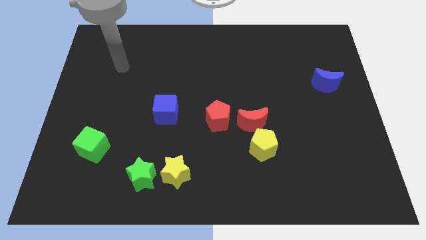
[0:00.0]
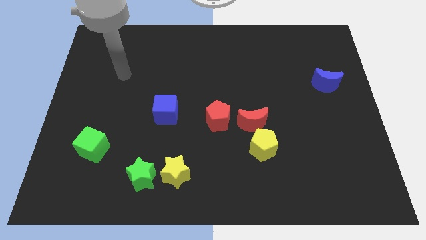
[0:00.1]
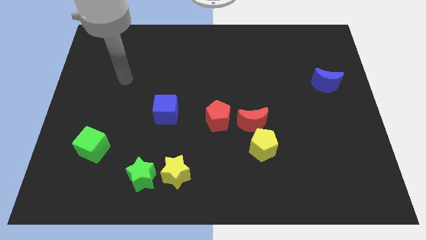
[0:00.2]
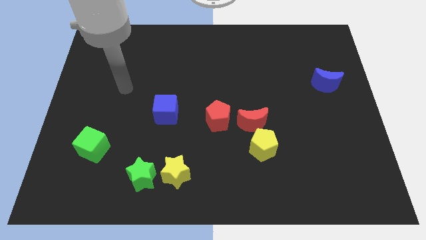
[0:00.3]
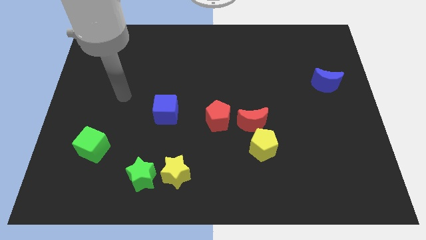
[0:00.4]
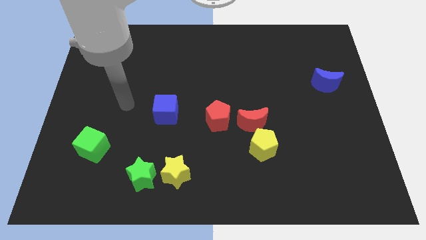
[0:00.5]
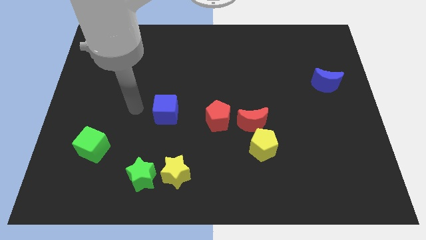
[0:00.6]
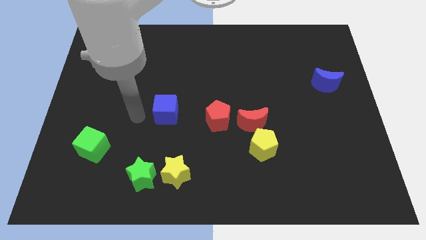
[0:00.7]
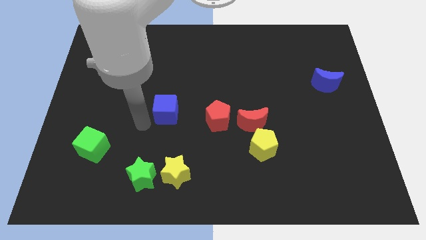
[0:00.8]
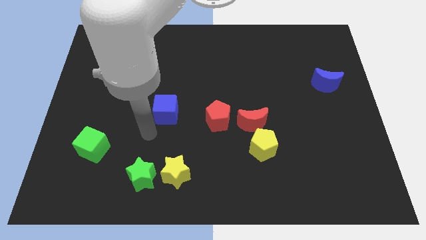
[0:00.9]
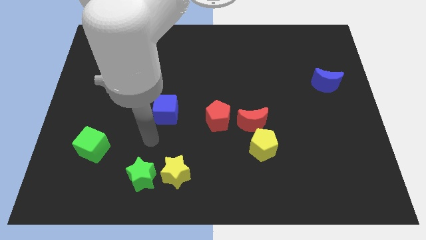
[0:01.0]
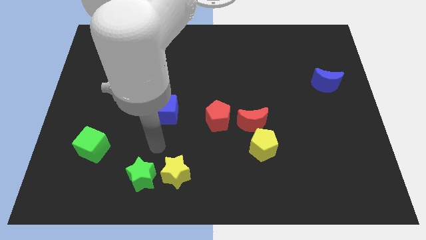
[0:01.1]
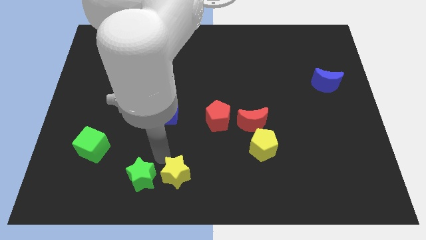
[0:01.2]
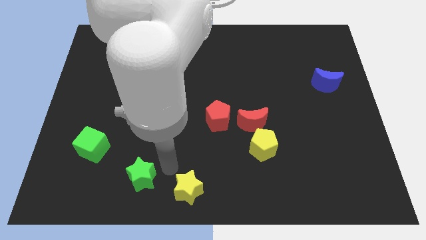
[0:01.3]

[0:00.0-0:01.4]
move the green star away from the yellow star

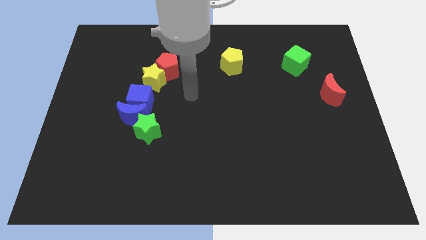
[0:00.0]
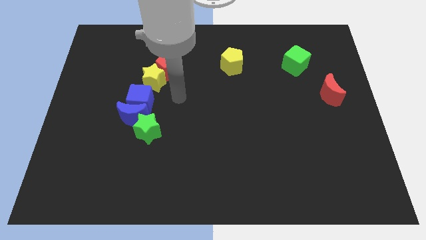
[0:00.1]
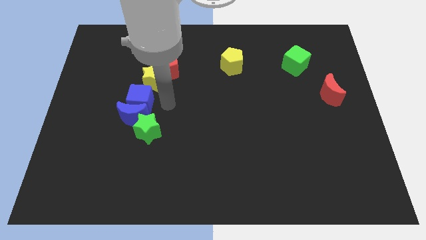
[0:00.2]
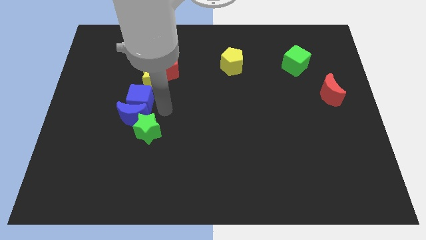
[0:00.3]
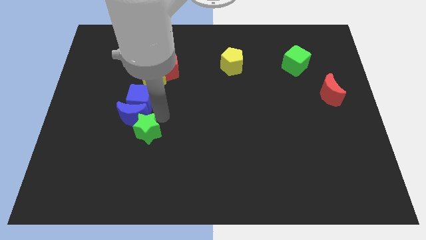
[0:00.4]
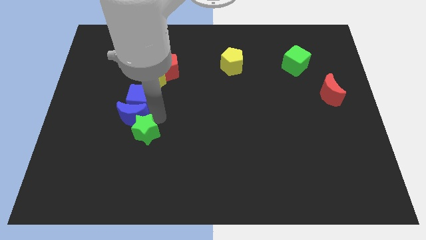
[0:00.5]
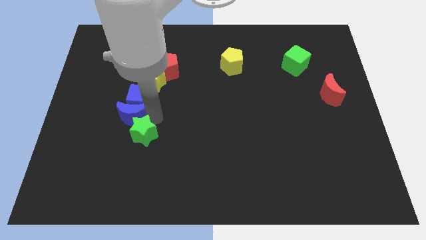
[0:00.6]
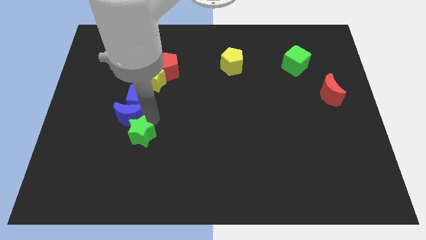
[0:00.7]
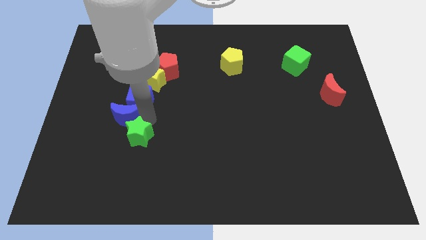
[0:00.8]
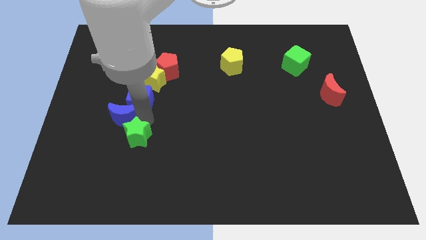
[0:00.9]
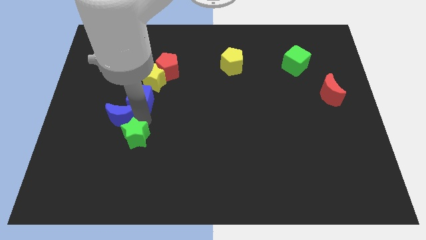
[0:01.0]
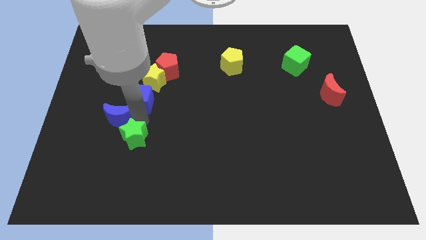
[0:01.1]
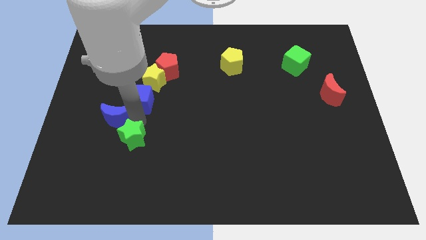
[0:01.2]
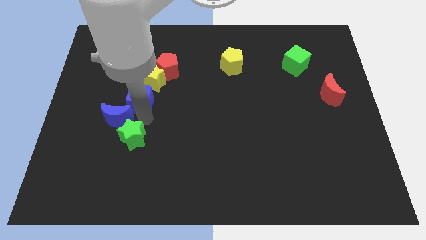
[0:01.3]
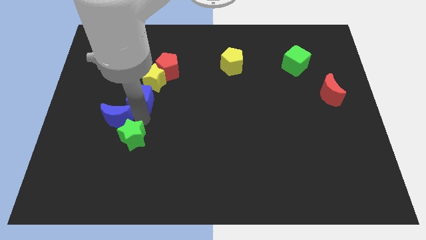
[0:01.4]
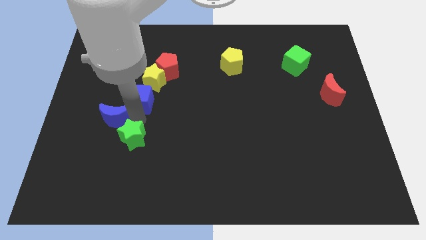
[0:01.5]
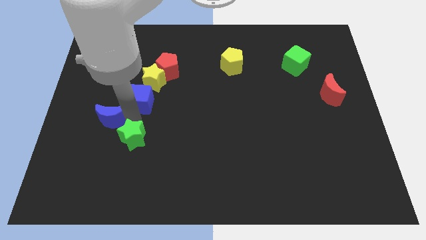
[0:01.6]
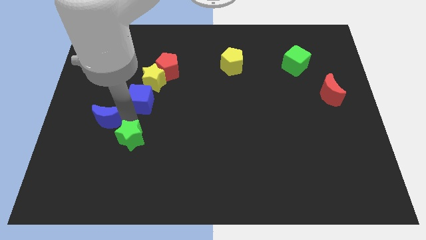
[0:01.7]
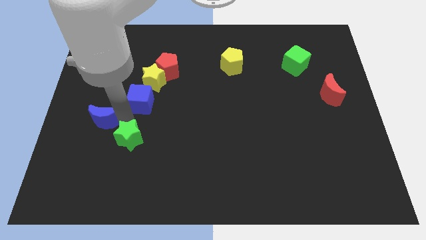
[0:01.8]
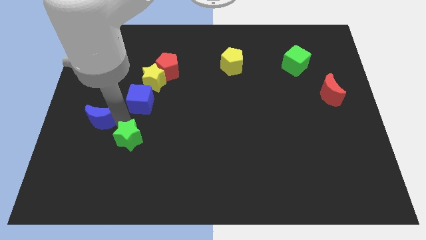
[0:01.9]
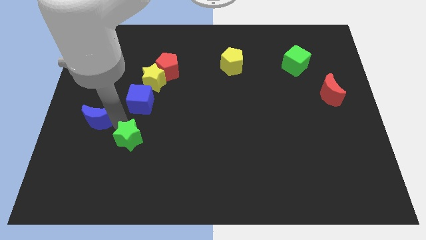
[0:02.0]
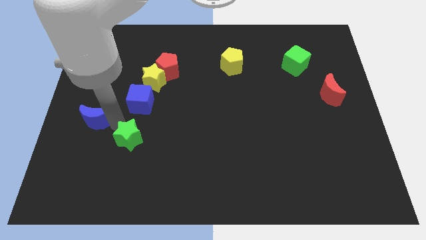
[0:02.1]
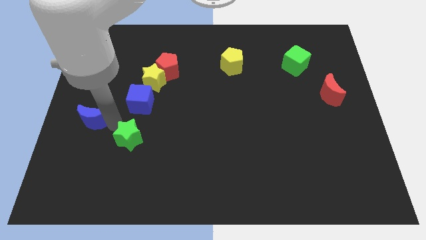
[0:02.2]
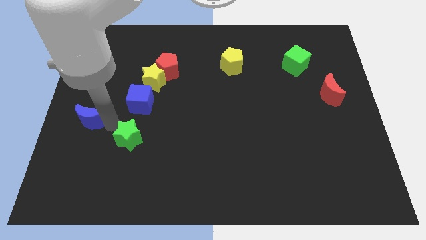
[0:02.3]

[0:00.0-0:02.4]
separate the blue moon from the blue cube and green star

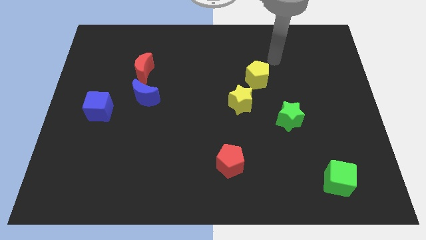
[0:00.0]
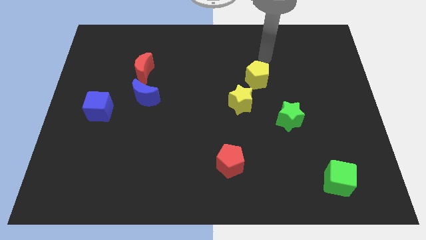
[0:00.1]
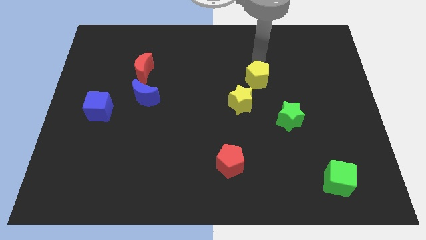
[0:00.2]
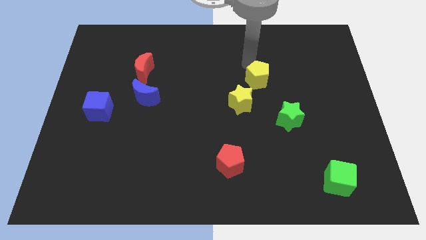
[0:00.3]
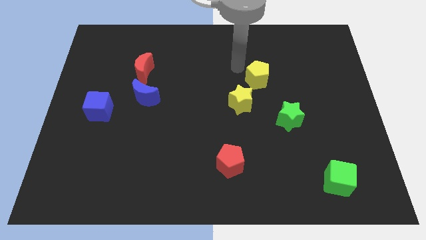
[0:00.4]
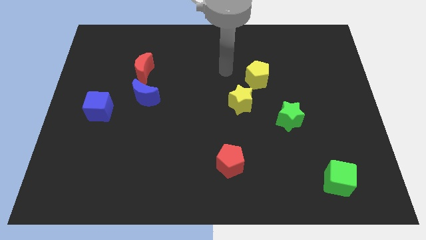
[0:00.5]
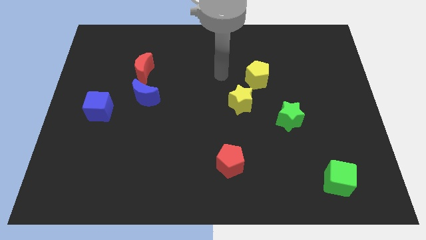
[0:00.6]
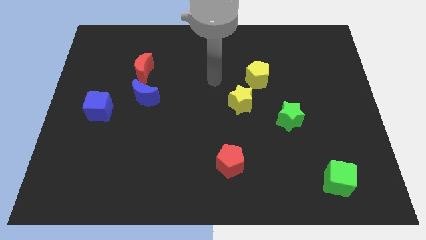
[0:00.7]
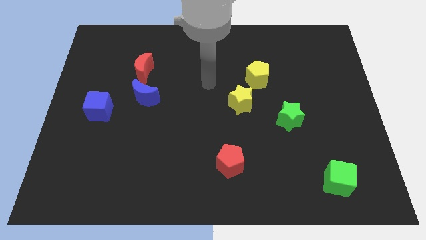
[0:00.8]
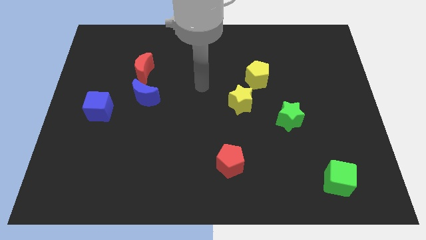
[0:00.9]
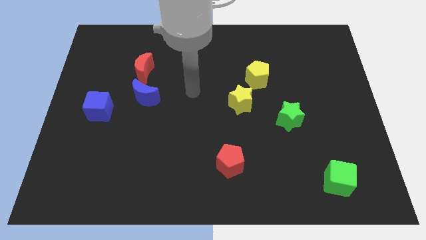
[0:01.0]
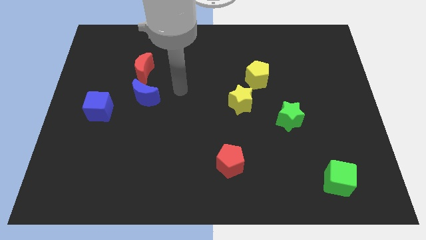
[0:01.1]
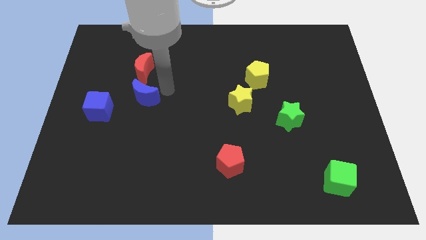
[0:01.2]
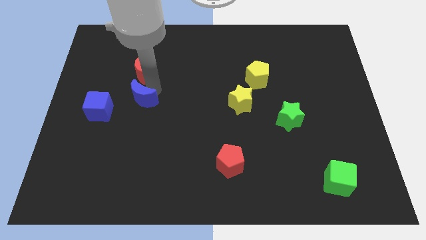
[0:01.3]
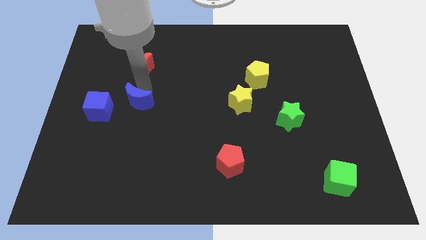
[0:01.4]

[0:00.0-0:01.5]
move the red moon away from the blue moon

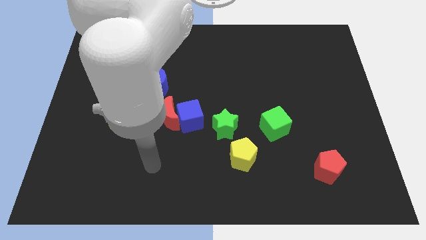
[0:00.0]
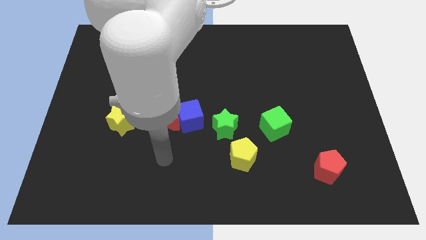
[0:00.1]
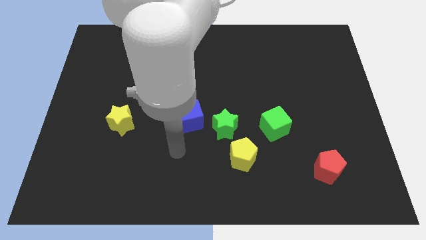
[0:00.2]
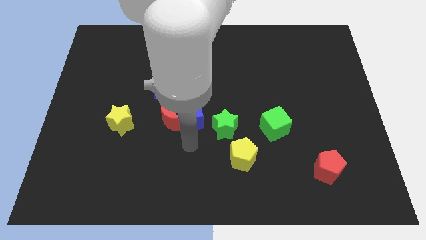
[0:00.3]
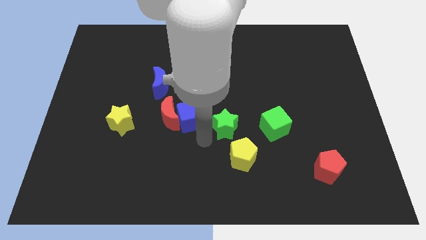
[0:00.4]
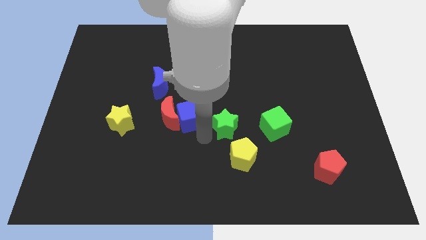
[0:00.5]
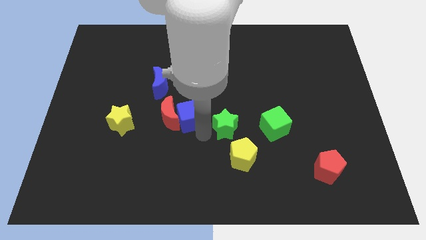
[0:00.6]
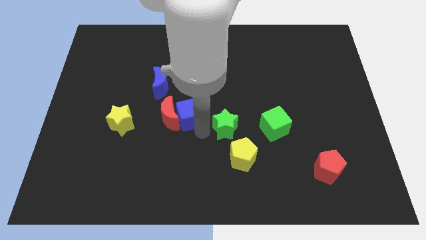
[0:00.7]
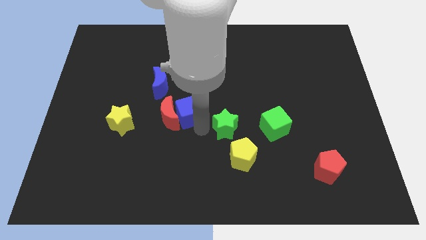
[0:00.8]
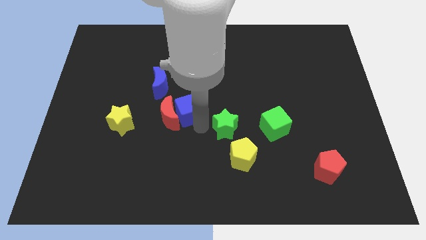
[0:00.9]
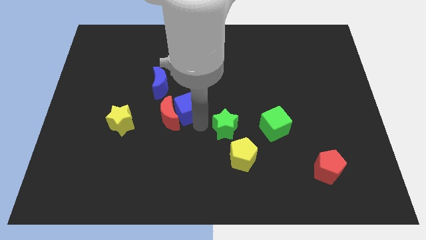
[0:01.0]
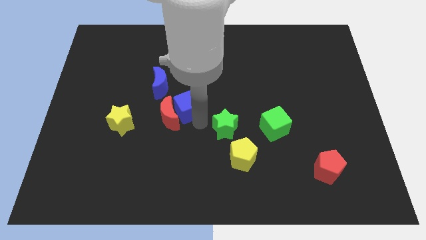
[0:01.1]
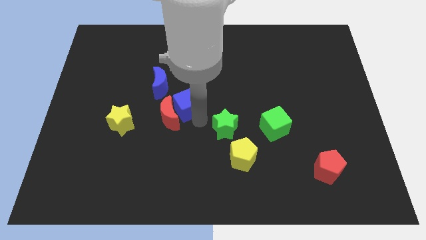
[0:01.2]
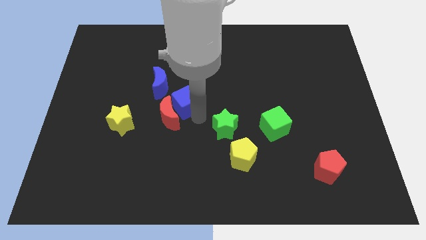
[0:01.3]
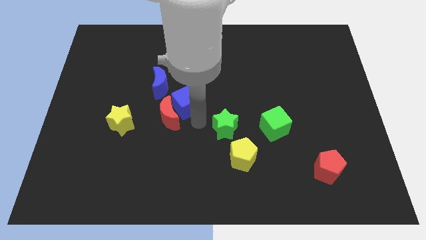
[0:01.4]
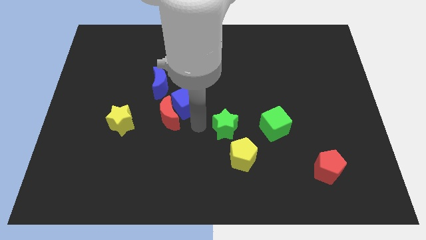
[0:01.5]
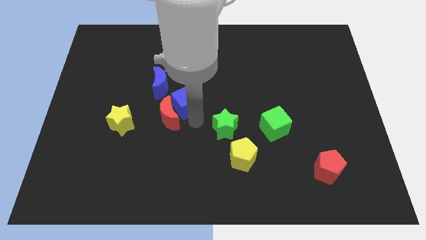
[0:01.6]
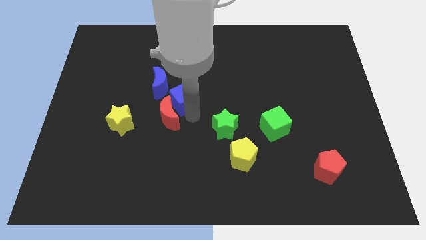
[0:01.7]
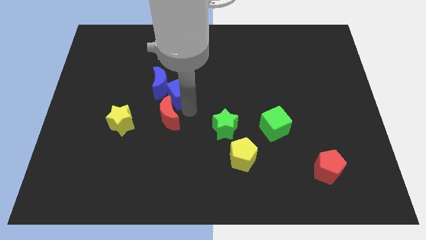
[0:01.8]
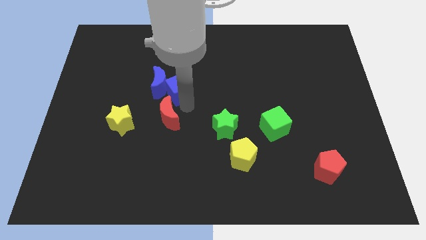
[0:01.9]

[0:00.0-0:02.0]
separate the blue cube from the red moon and green star

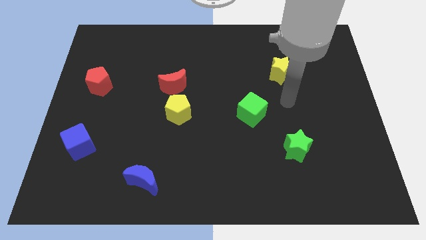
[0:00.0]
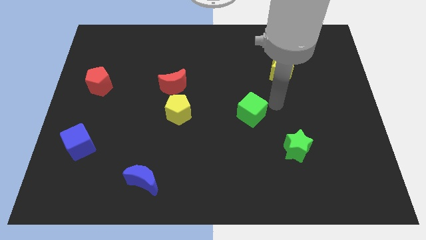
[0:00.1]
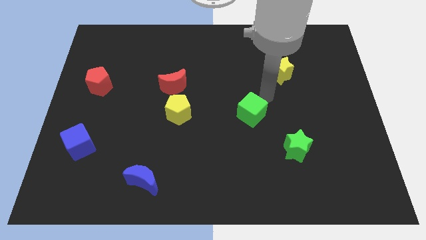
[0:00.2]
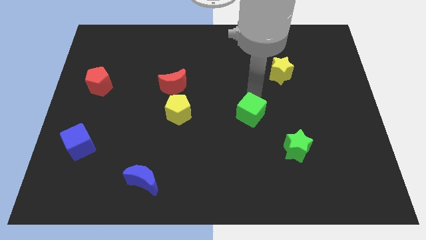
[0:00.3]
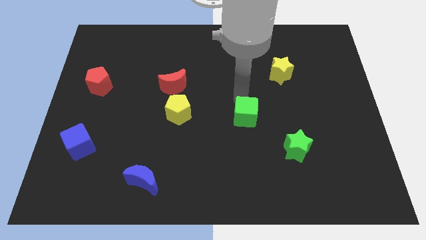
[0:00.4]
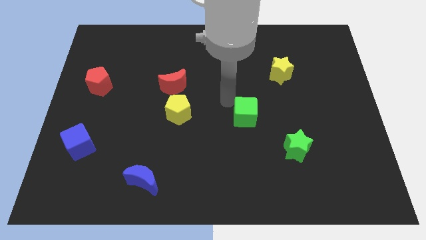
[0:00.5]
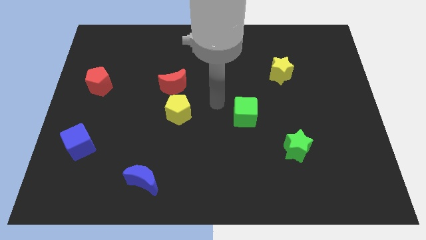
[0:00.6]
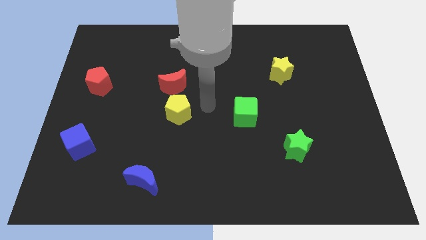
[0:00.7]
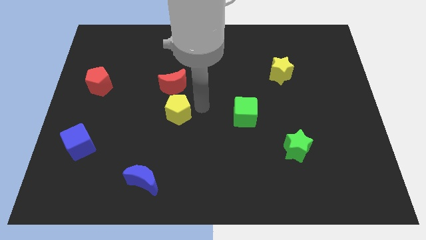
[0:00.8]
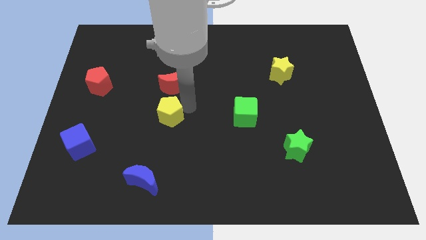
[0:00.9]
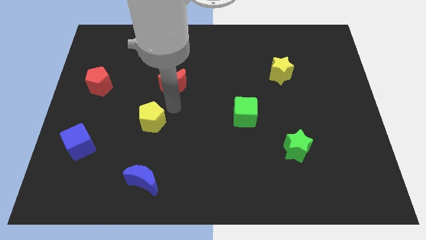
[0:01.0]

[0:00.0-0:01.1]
move the red moon away from the yellow pentagon

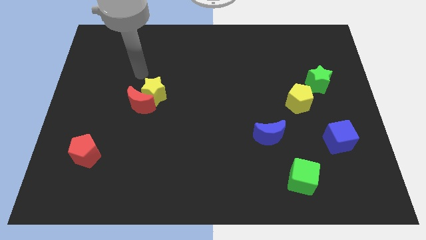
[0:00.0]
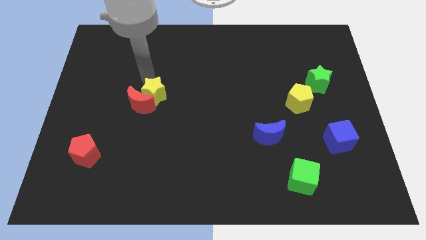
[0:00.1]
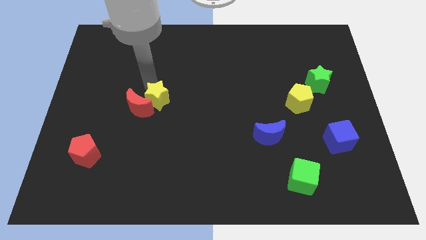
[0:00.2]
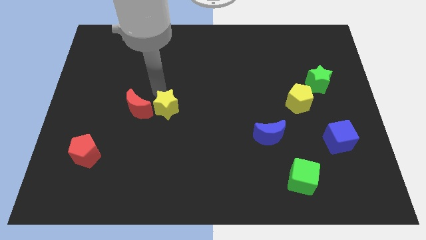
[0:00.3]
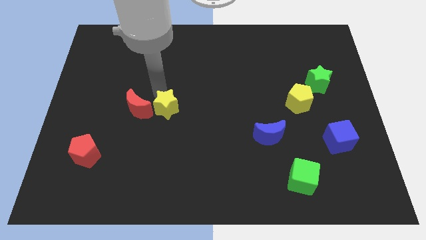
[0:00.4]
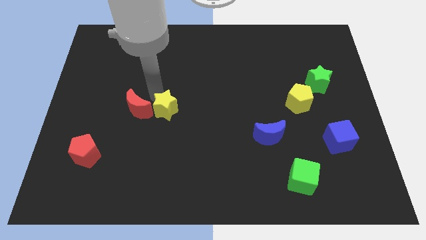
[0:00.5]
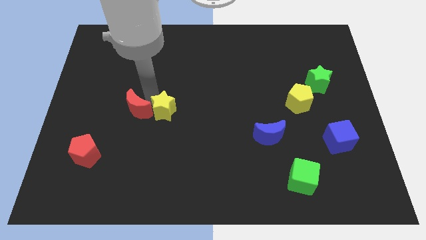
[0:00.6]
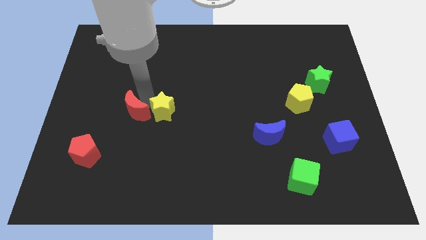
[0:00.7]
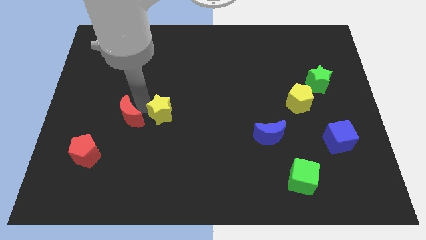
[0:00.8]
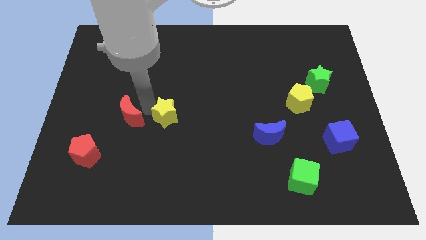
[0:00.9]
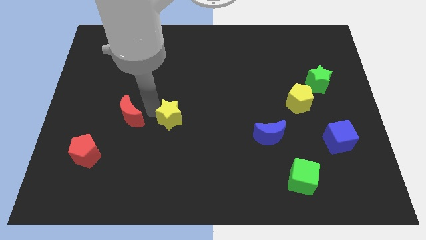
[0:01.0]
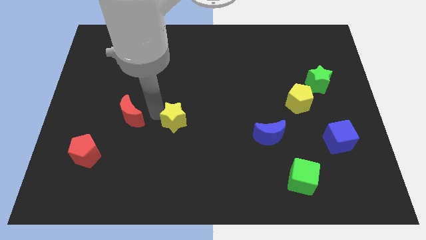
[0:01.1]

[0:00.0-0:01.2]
pull the red moon apart from the yellow star
